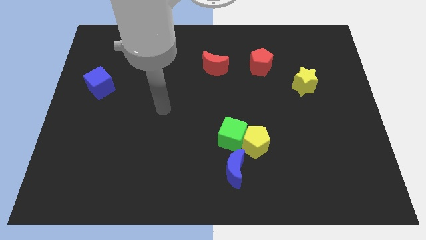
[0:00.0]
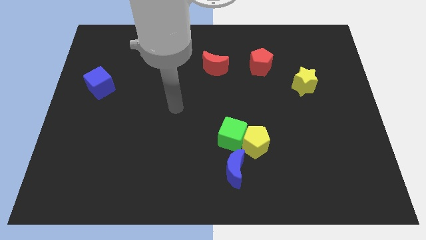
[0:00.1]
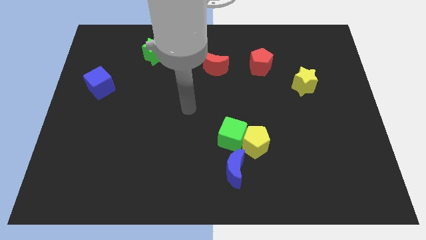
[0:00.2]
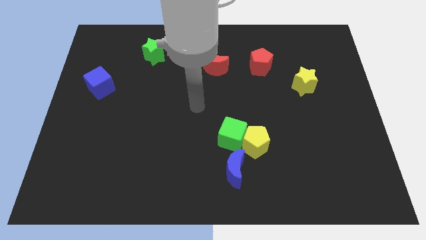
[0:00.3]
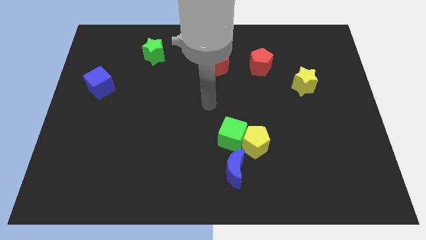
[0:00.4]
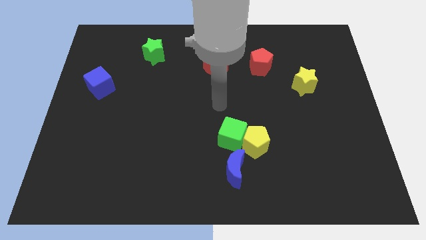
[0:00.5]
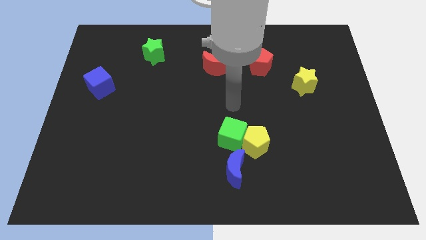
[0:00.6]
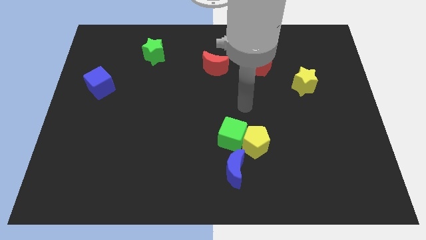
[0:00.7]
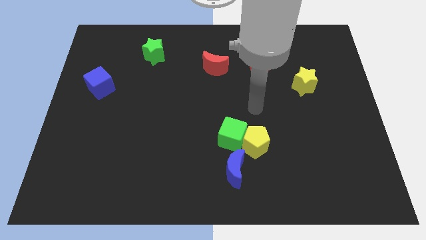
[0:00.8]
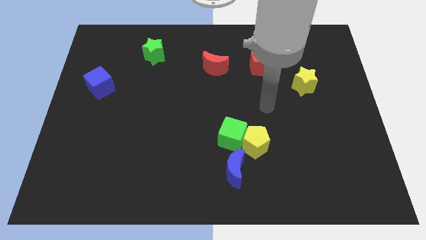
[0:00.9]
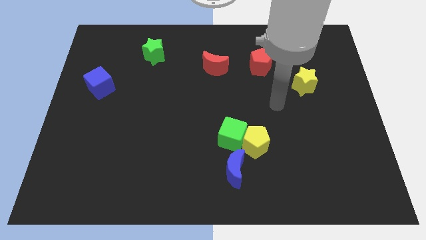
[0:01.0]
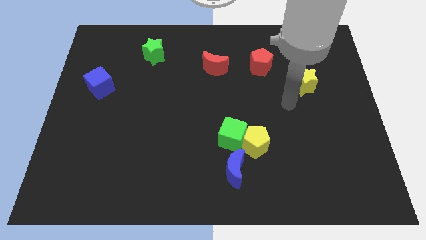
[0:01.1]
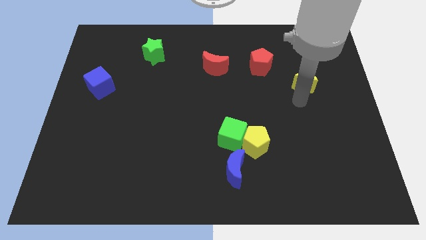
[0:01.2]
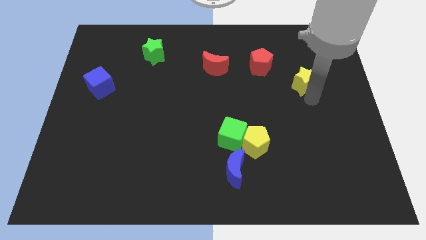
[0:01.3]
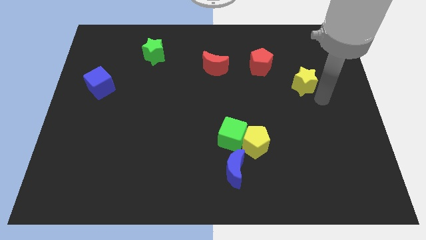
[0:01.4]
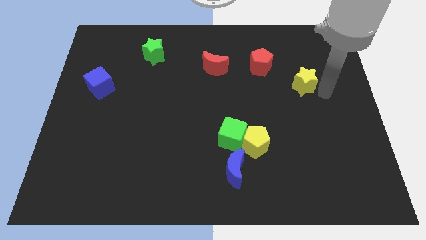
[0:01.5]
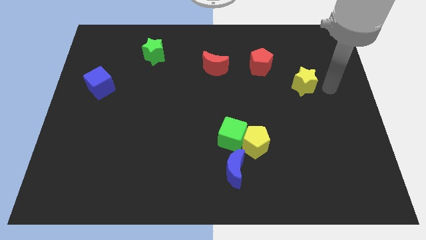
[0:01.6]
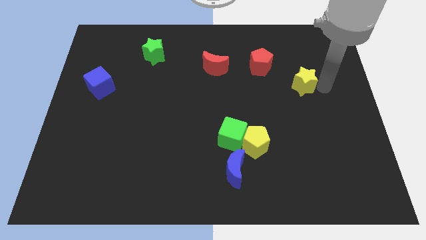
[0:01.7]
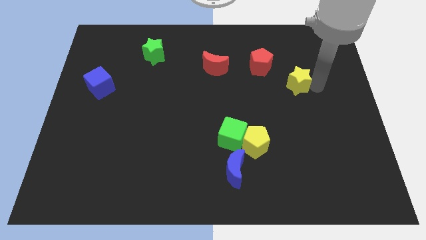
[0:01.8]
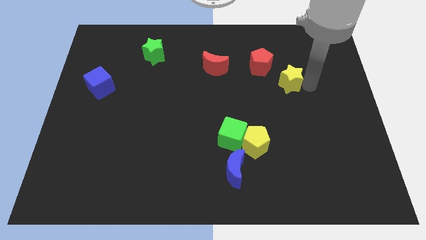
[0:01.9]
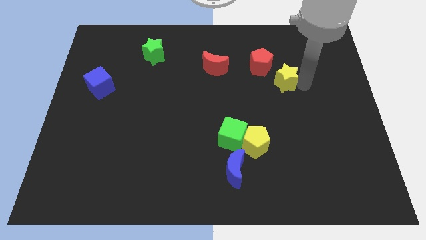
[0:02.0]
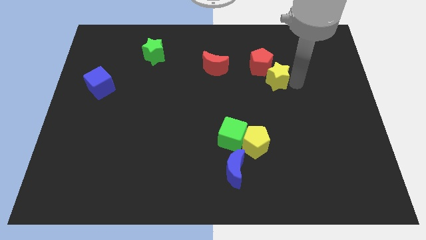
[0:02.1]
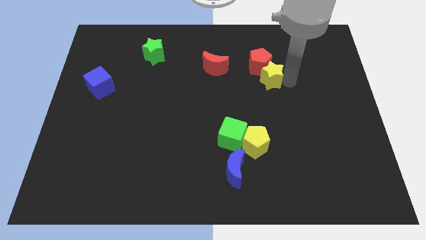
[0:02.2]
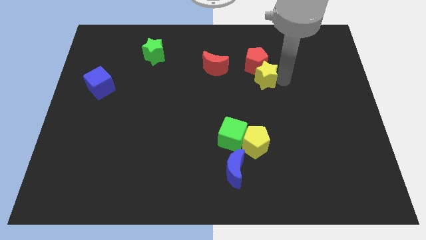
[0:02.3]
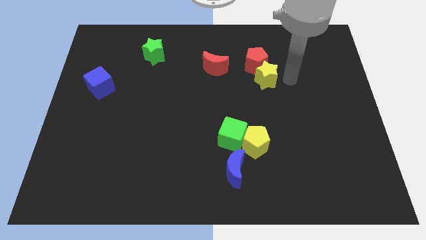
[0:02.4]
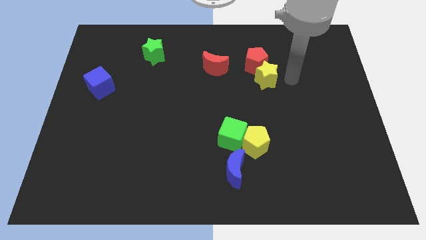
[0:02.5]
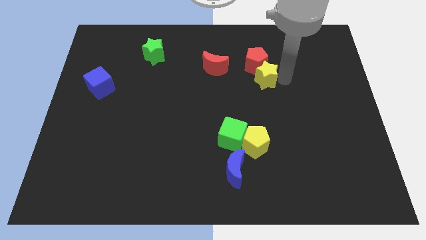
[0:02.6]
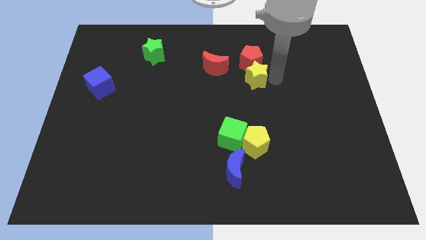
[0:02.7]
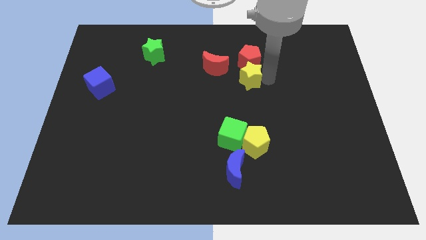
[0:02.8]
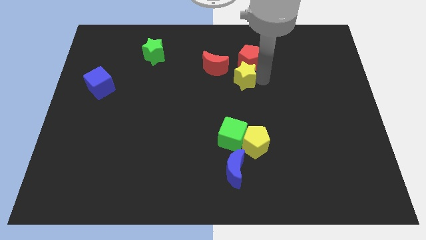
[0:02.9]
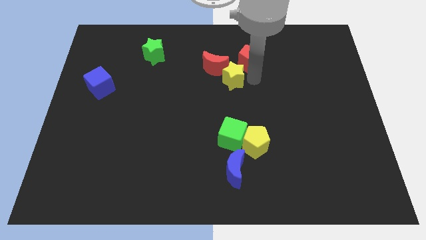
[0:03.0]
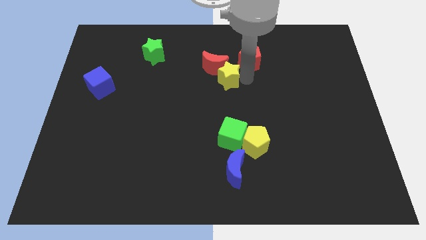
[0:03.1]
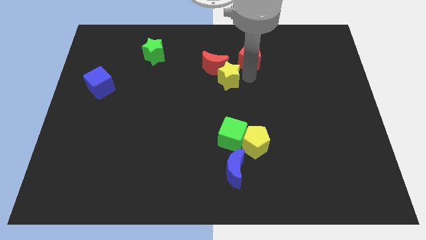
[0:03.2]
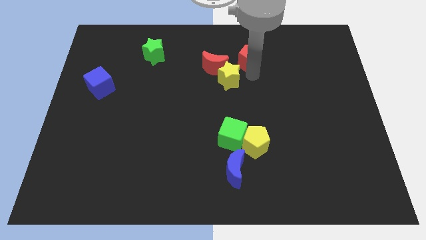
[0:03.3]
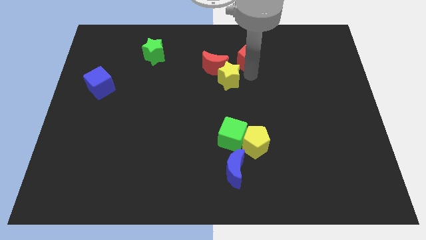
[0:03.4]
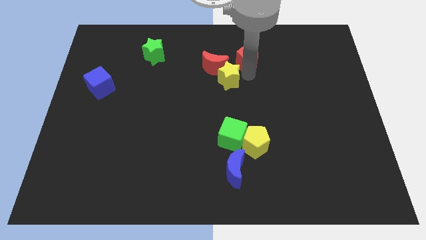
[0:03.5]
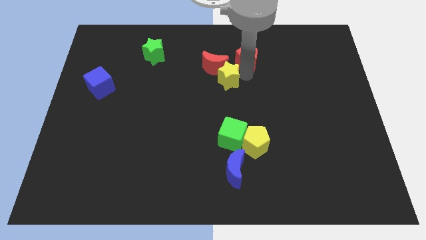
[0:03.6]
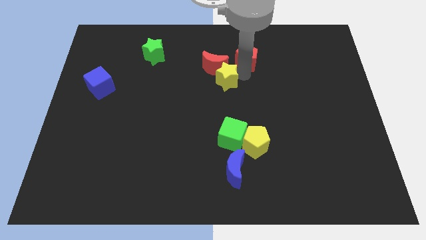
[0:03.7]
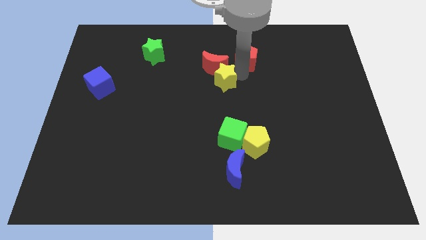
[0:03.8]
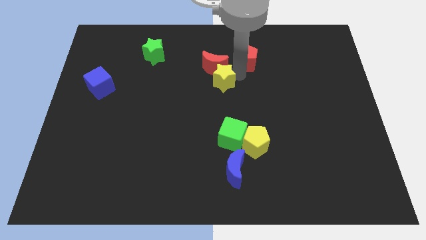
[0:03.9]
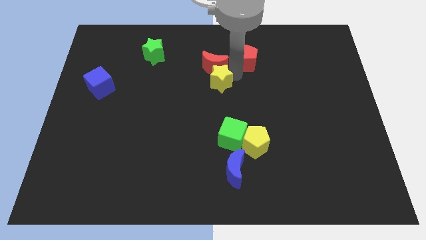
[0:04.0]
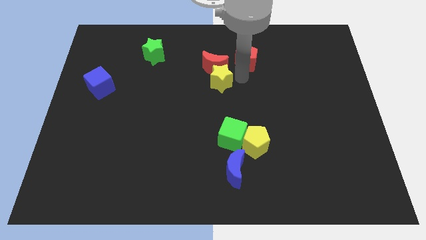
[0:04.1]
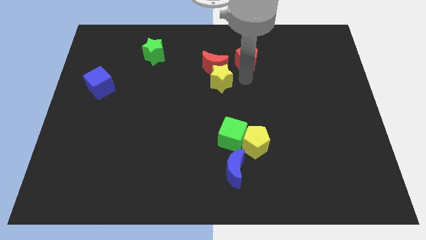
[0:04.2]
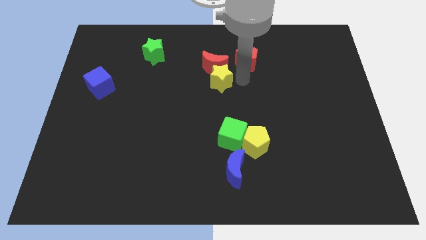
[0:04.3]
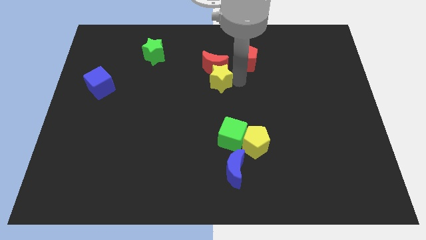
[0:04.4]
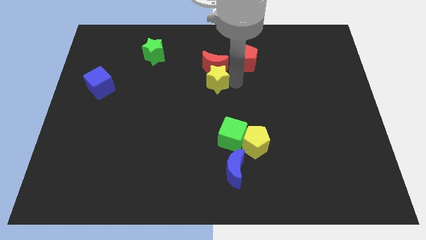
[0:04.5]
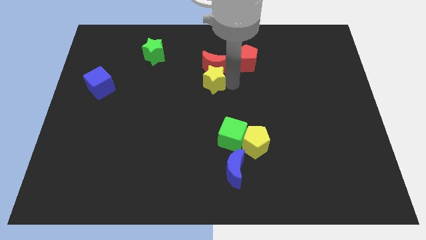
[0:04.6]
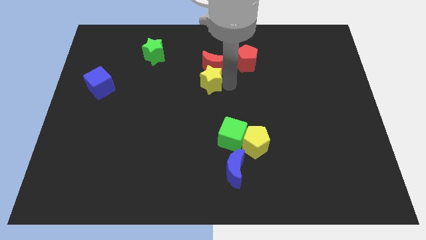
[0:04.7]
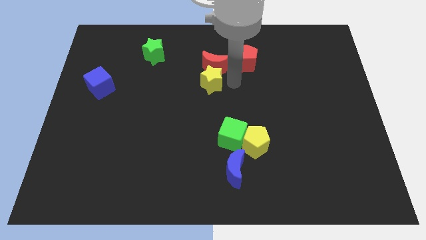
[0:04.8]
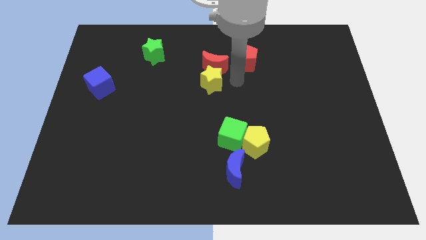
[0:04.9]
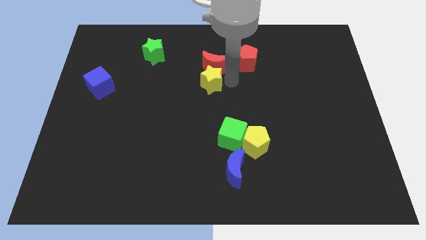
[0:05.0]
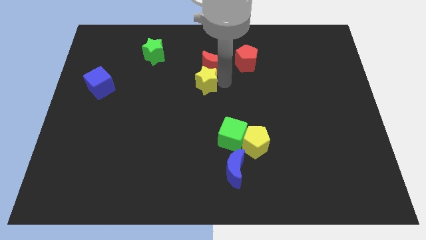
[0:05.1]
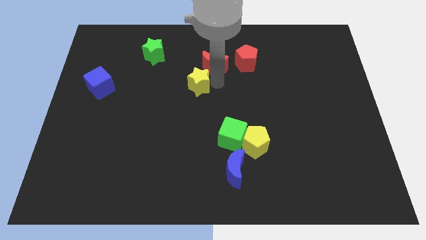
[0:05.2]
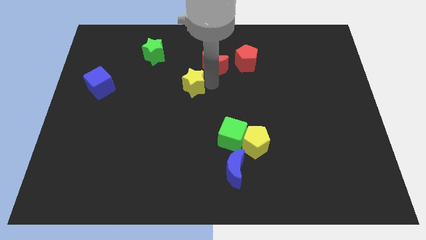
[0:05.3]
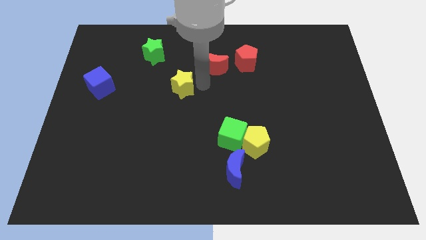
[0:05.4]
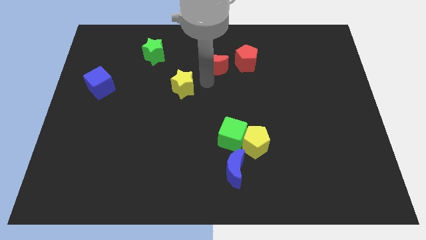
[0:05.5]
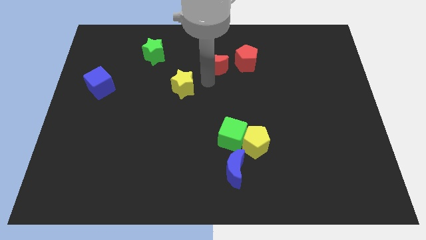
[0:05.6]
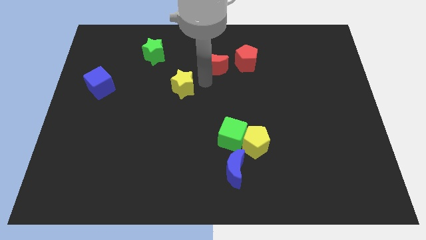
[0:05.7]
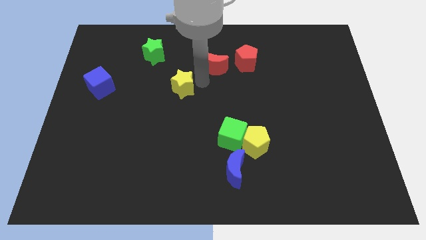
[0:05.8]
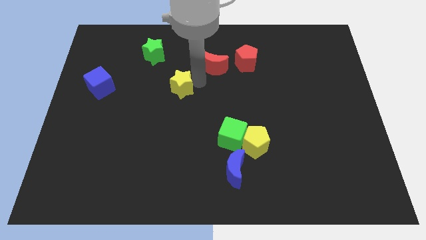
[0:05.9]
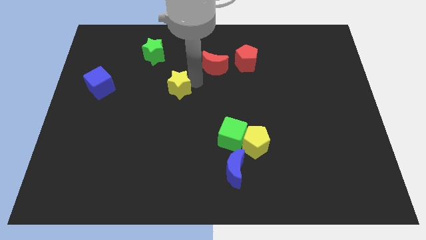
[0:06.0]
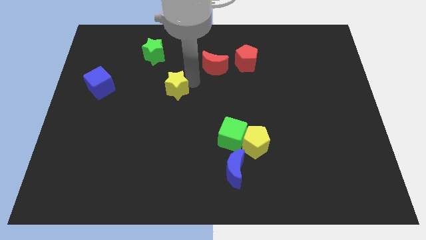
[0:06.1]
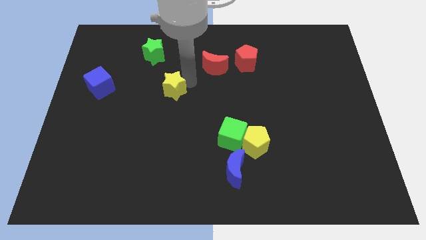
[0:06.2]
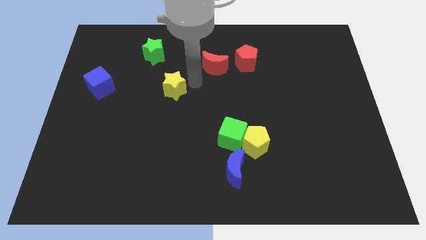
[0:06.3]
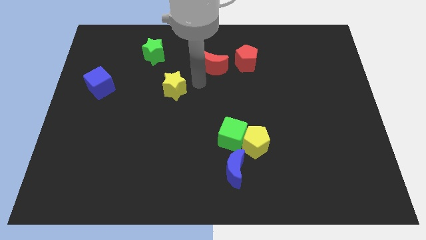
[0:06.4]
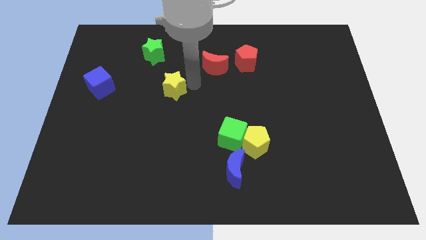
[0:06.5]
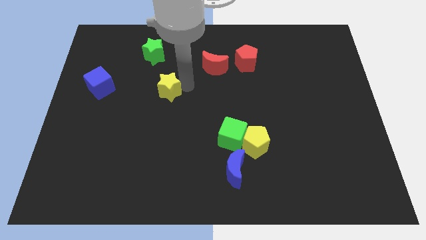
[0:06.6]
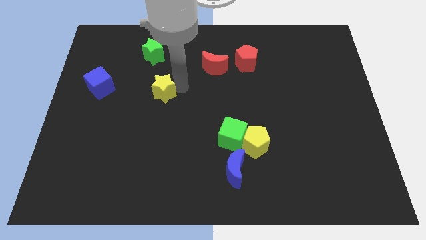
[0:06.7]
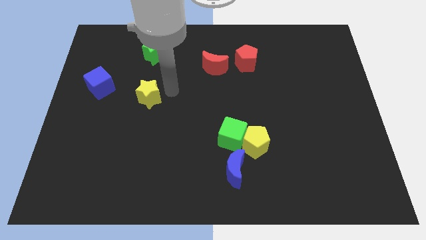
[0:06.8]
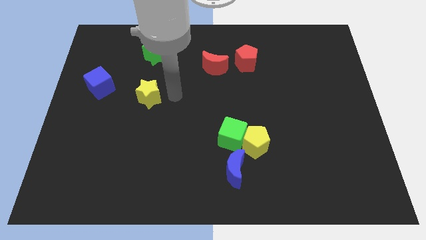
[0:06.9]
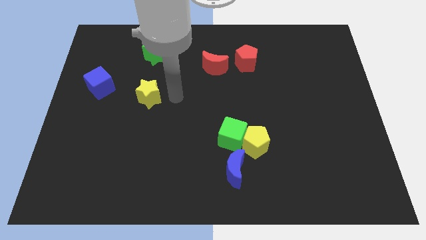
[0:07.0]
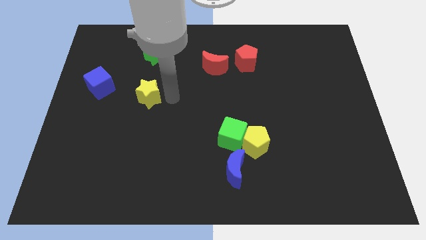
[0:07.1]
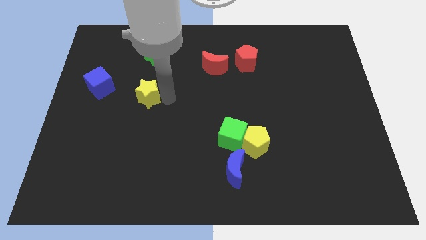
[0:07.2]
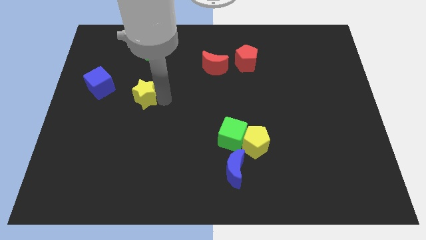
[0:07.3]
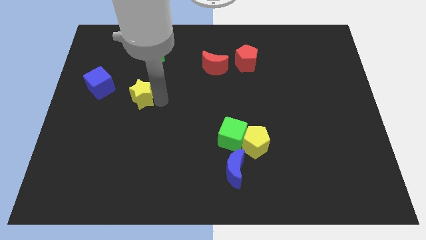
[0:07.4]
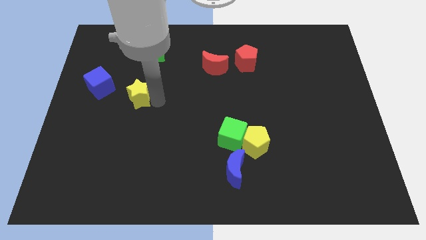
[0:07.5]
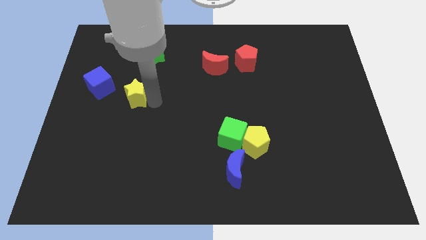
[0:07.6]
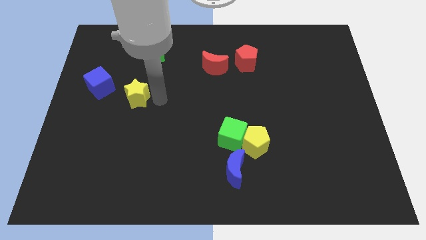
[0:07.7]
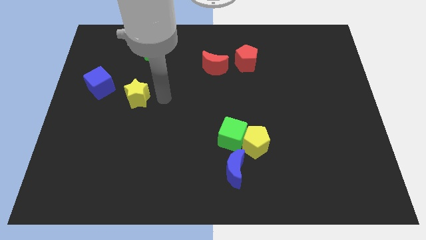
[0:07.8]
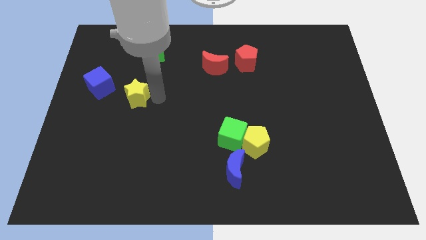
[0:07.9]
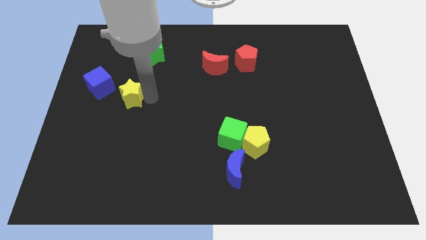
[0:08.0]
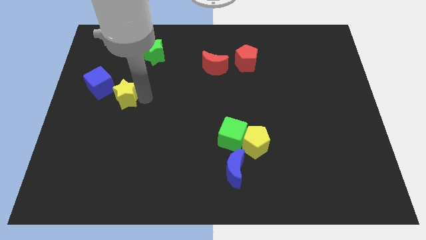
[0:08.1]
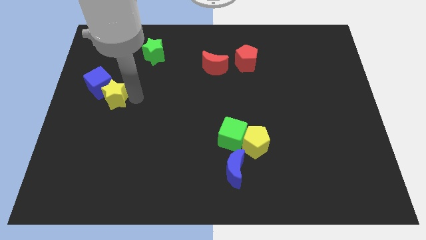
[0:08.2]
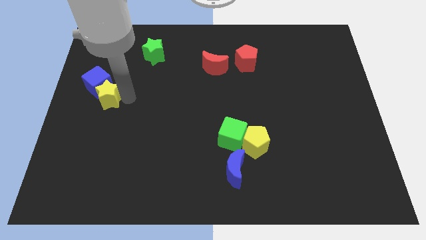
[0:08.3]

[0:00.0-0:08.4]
push the yellow star to the left side
